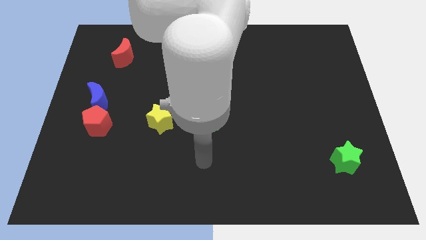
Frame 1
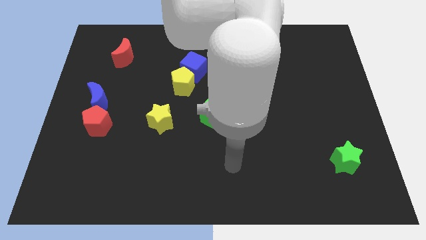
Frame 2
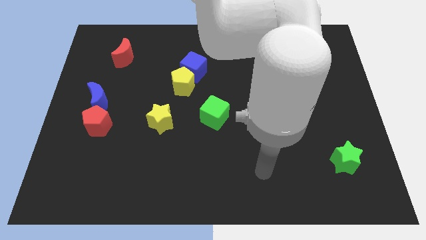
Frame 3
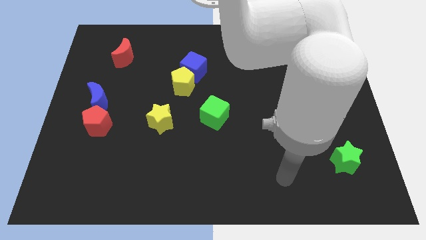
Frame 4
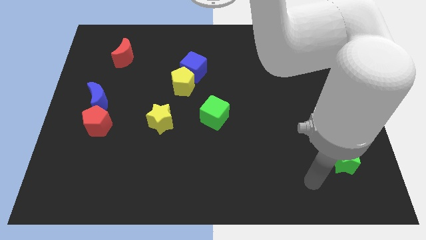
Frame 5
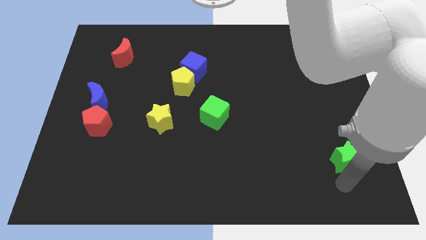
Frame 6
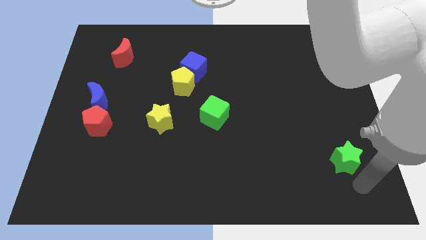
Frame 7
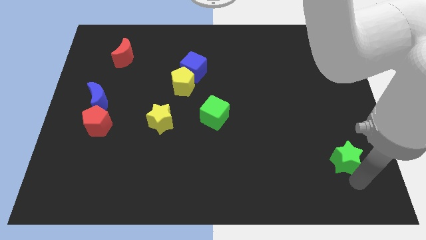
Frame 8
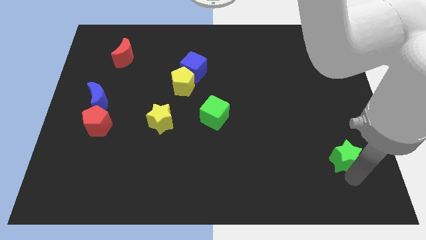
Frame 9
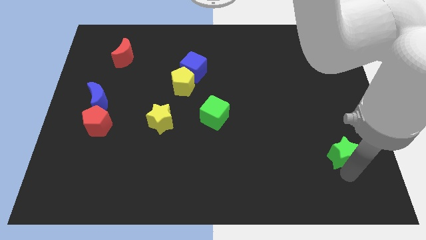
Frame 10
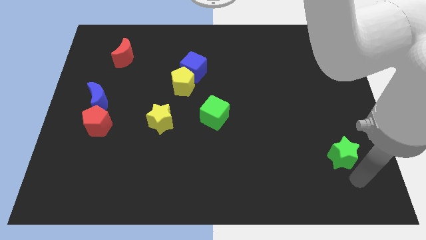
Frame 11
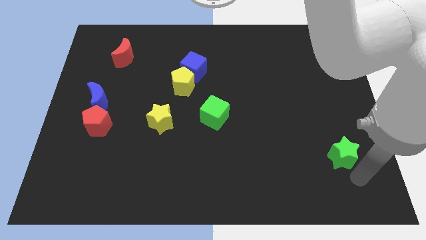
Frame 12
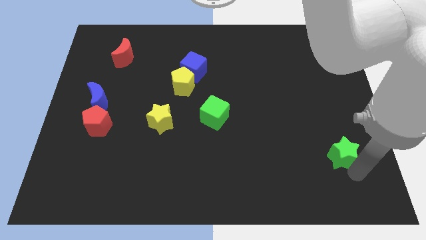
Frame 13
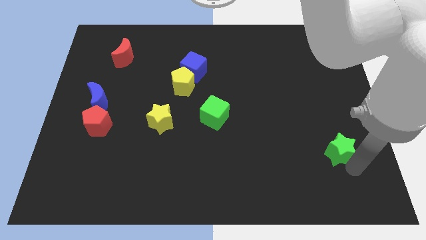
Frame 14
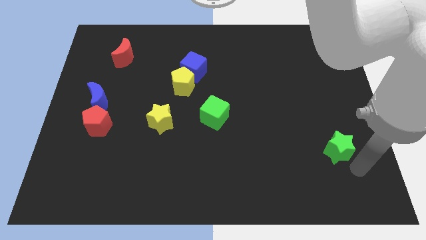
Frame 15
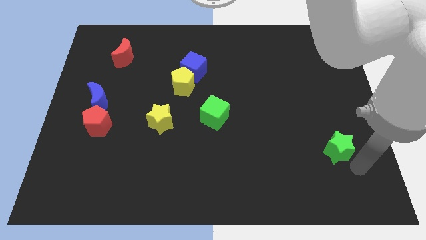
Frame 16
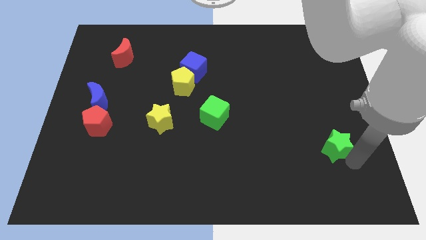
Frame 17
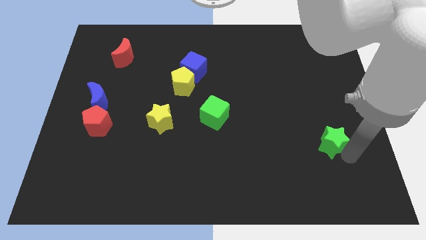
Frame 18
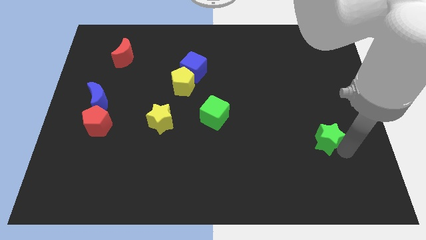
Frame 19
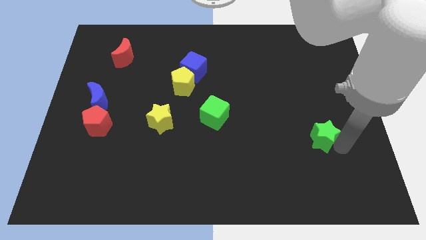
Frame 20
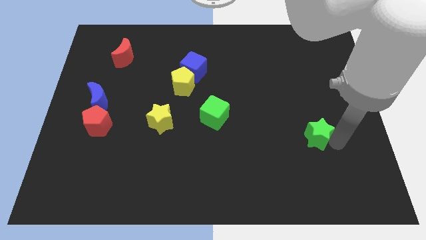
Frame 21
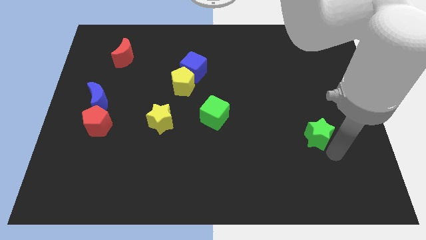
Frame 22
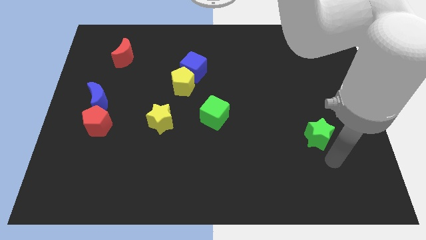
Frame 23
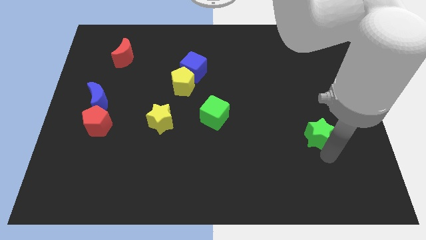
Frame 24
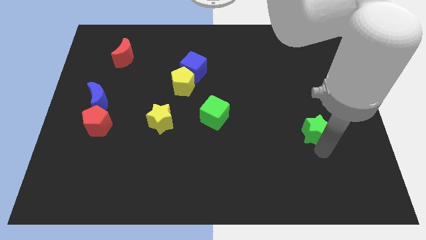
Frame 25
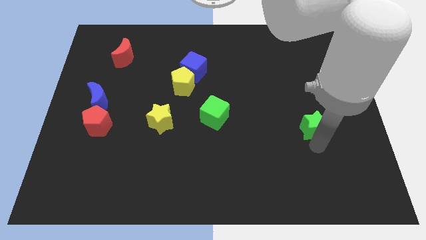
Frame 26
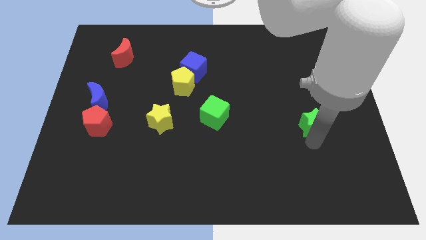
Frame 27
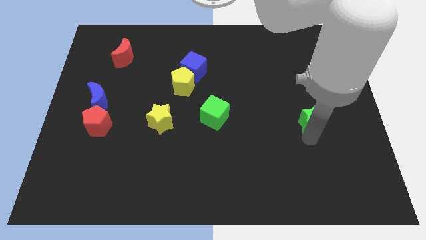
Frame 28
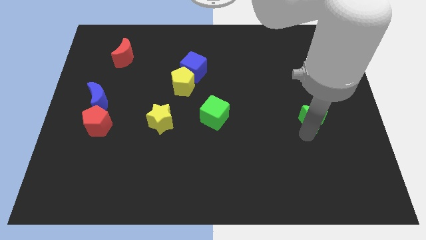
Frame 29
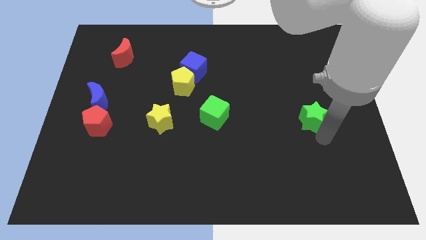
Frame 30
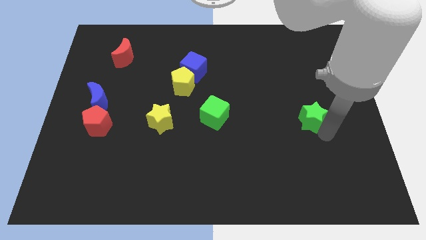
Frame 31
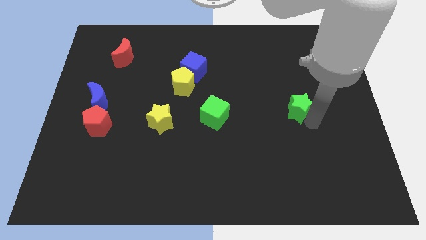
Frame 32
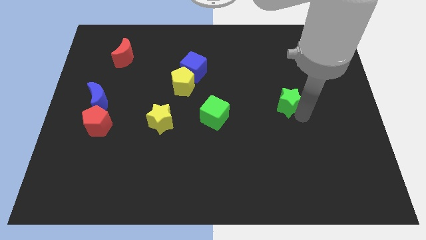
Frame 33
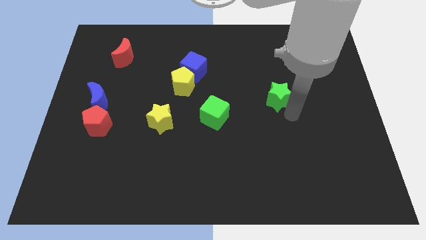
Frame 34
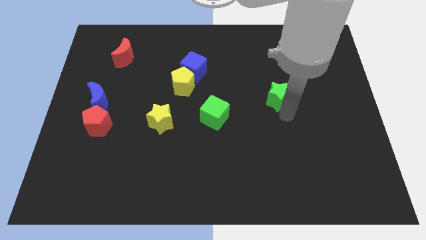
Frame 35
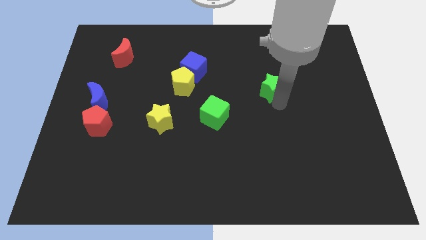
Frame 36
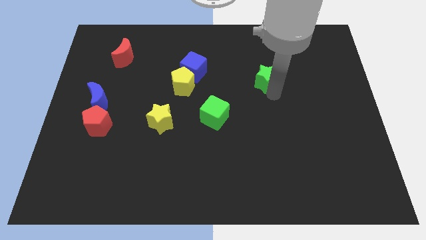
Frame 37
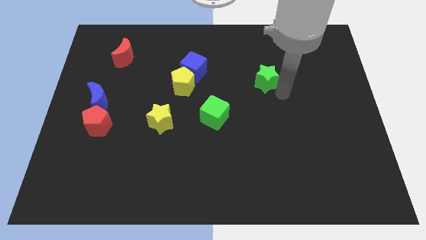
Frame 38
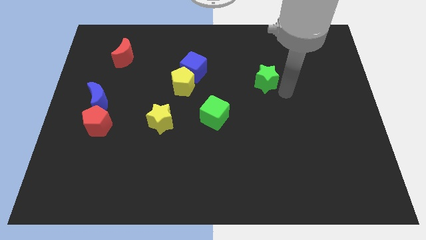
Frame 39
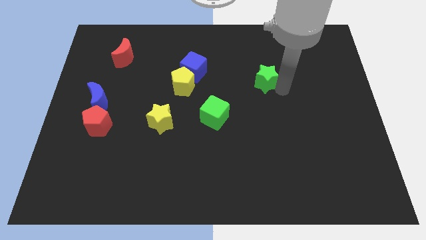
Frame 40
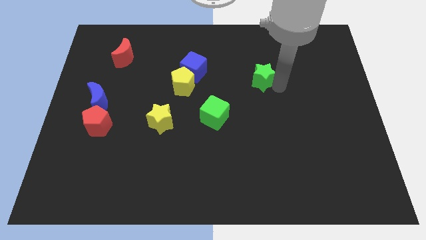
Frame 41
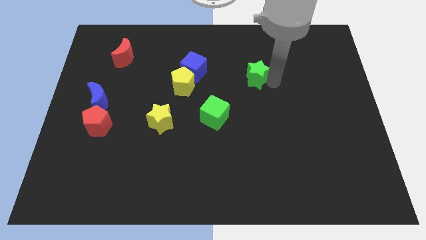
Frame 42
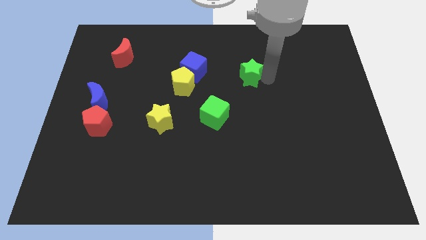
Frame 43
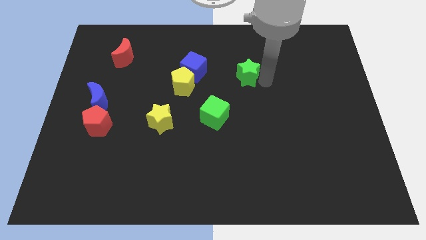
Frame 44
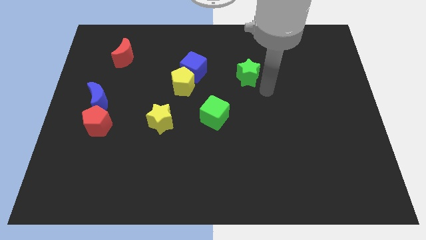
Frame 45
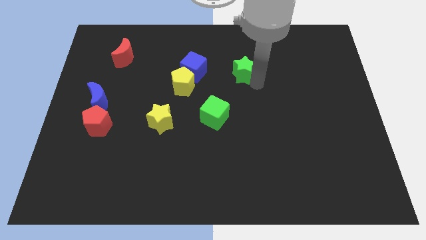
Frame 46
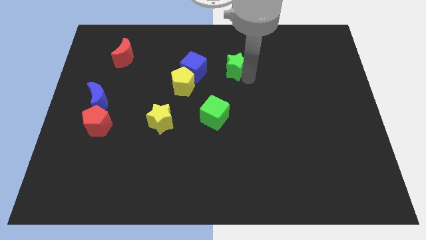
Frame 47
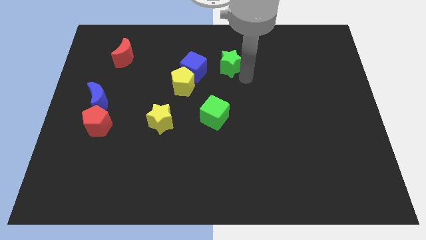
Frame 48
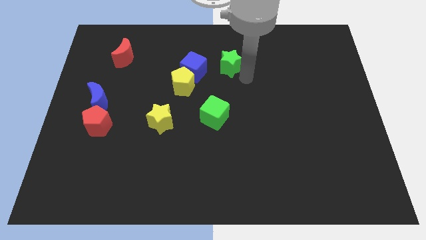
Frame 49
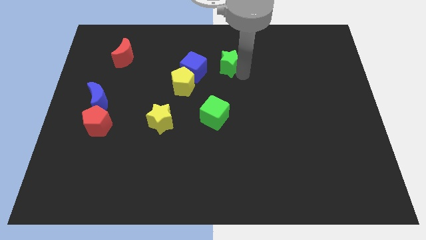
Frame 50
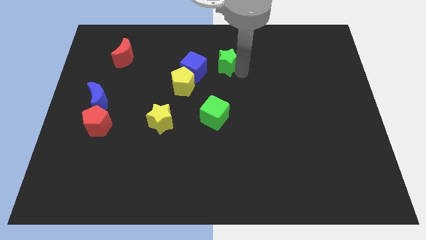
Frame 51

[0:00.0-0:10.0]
push the green star diagonally up and to the right of the blue cube

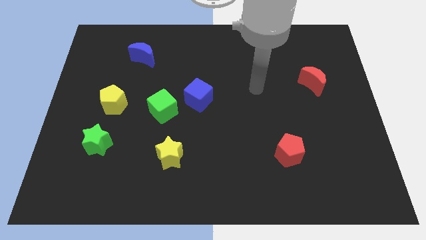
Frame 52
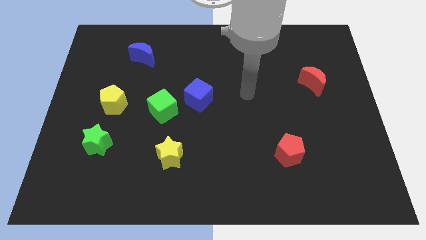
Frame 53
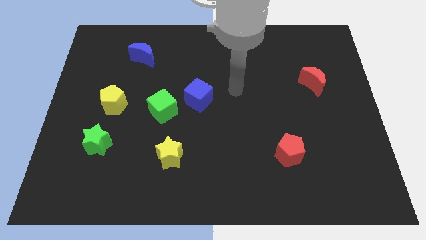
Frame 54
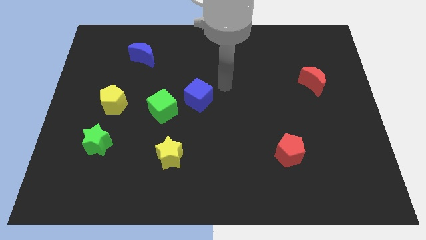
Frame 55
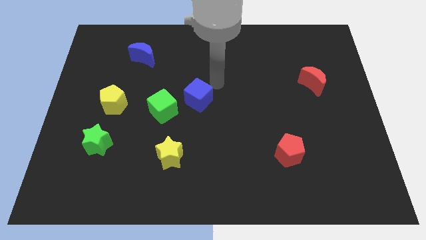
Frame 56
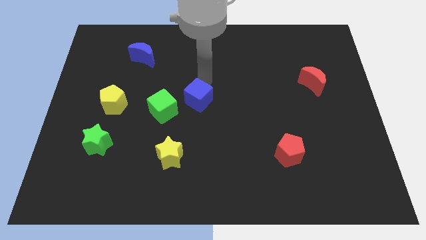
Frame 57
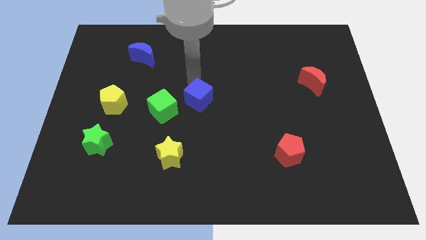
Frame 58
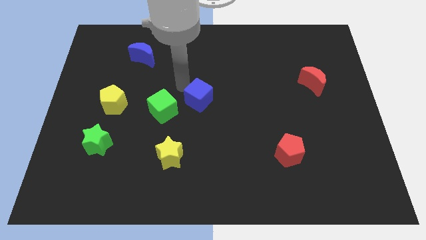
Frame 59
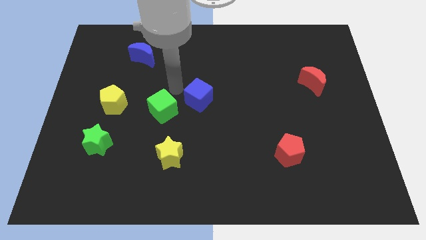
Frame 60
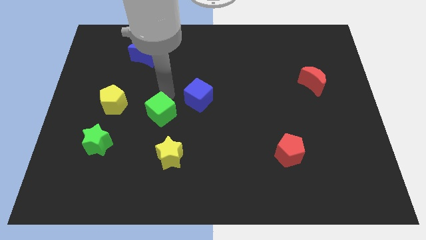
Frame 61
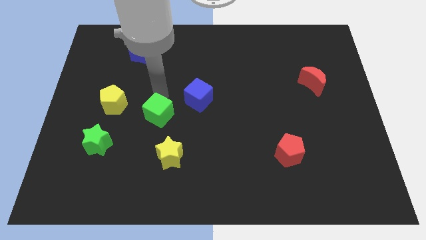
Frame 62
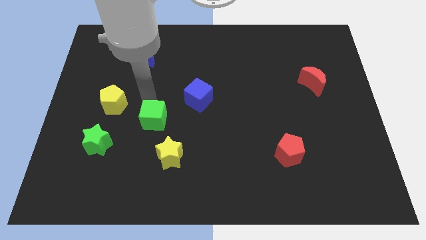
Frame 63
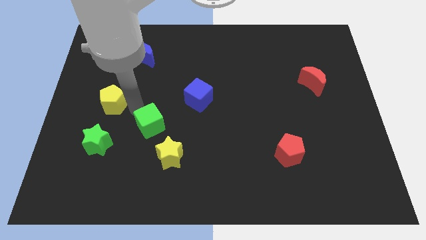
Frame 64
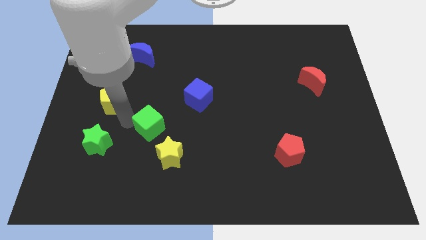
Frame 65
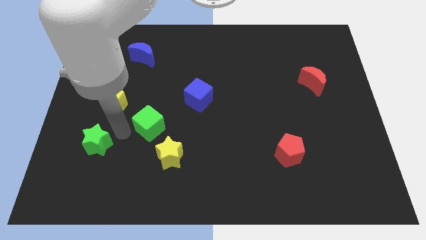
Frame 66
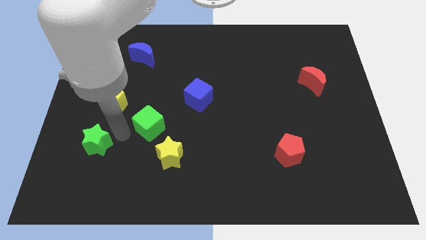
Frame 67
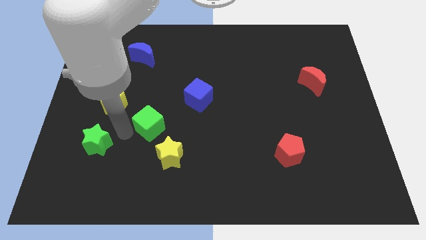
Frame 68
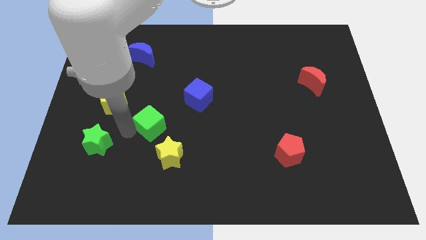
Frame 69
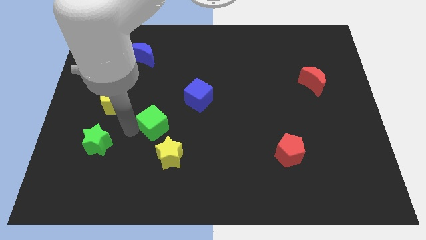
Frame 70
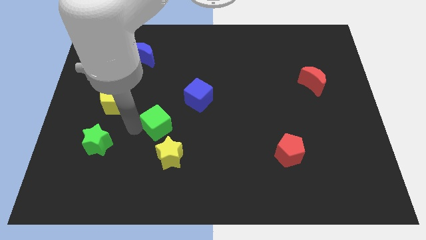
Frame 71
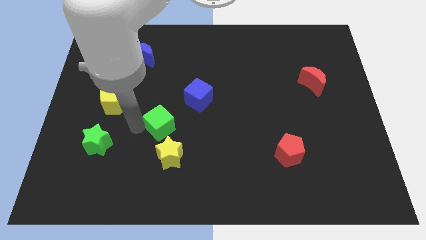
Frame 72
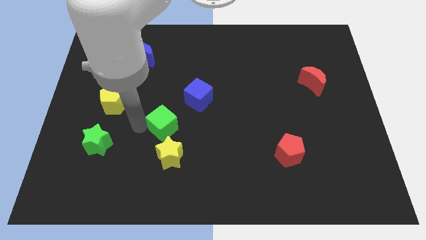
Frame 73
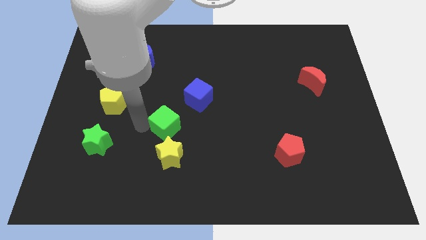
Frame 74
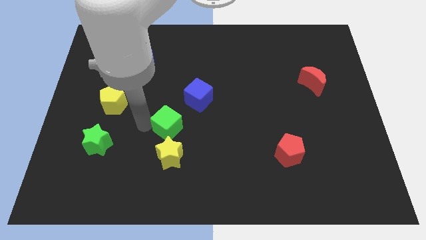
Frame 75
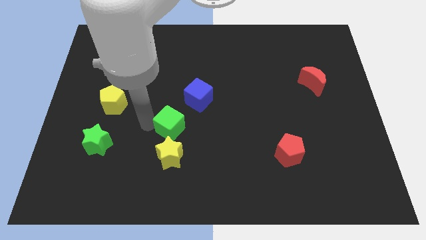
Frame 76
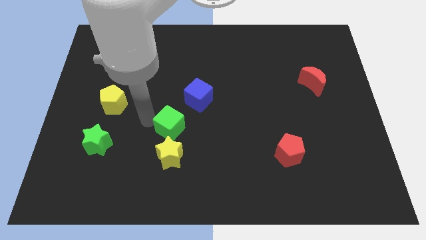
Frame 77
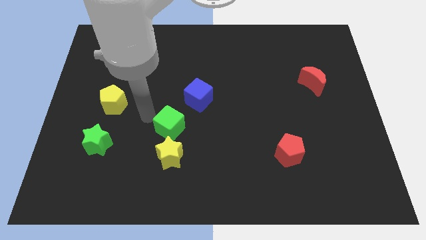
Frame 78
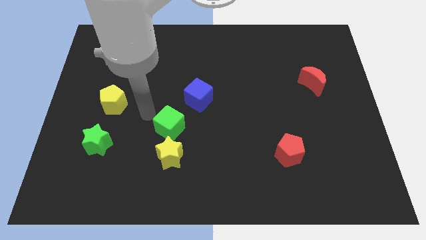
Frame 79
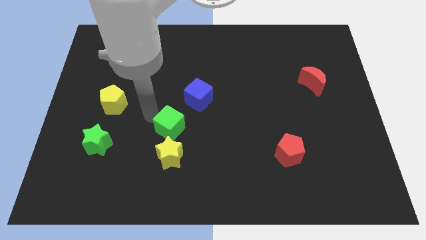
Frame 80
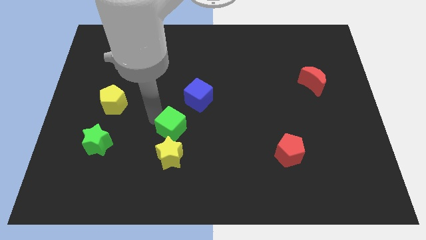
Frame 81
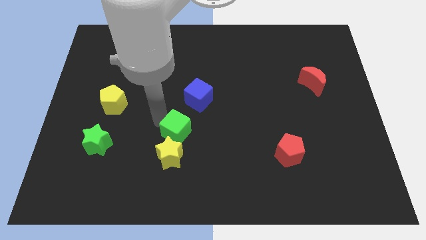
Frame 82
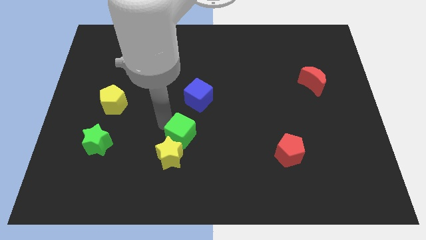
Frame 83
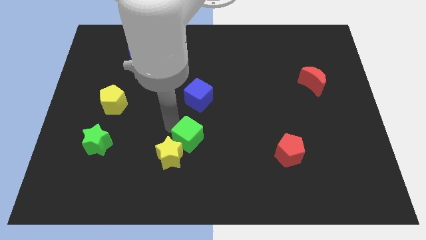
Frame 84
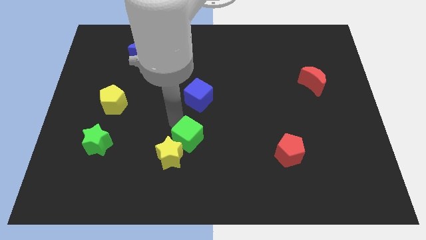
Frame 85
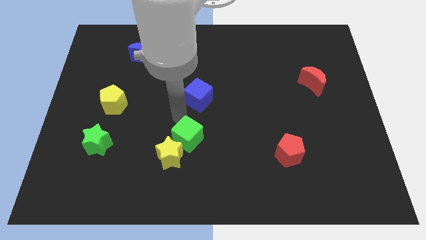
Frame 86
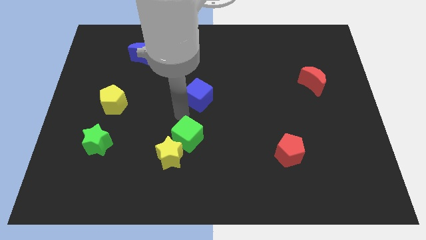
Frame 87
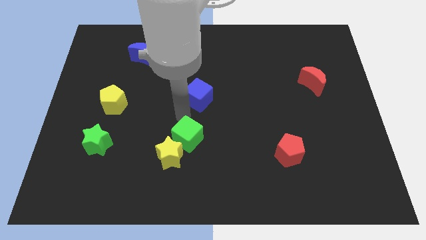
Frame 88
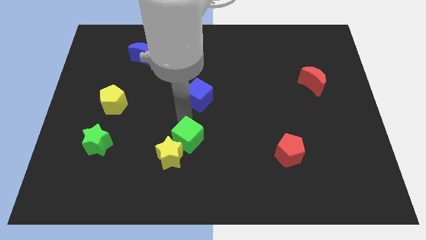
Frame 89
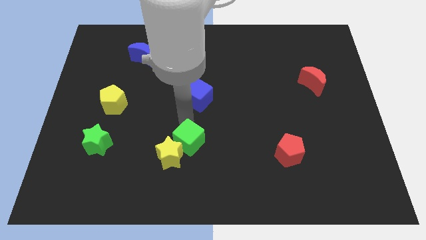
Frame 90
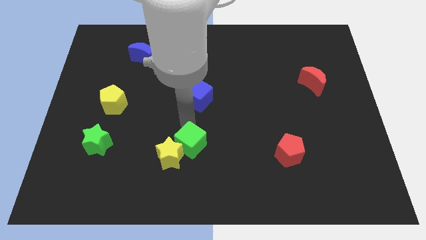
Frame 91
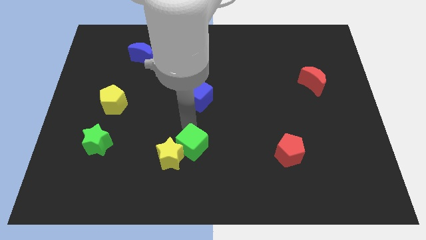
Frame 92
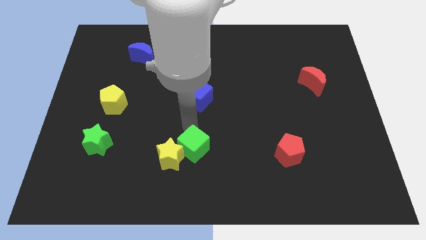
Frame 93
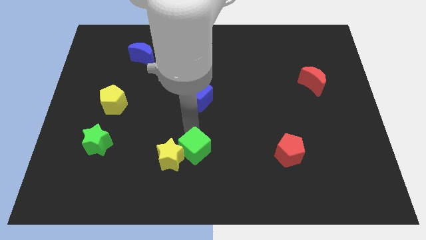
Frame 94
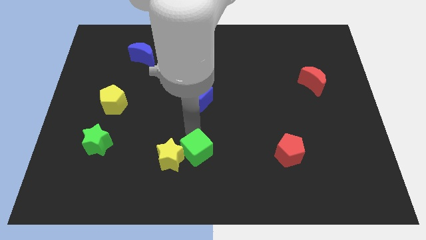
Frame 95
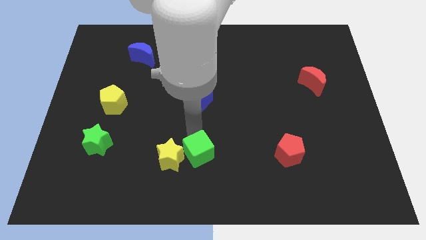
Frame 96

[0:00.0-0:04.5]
put the green cube to the bottom right of the yellow star
